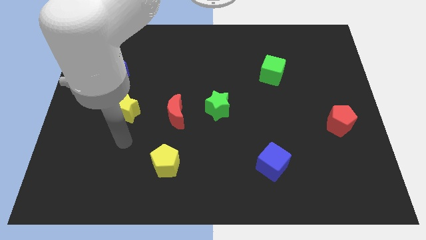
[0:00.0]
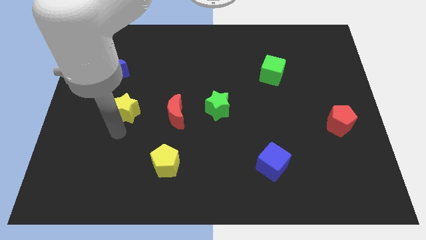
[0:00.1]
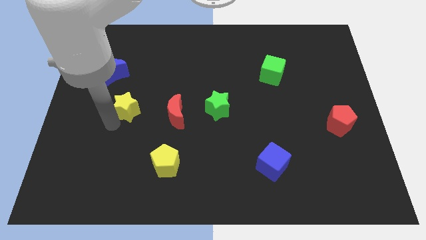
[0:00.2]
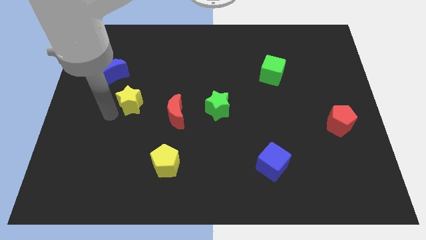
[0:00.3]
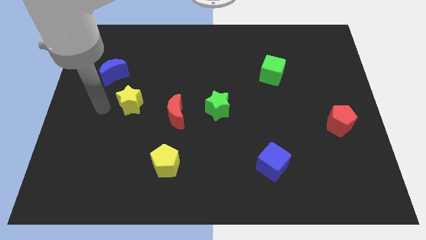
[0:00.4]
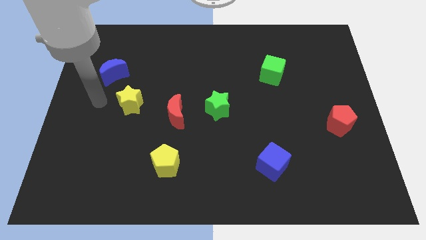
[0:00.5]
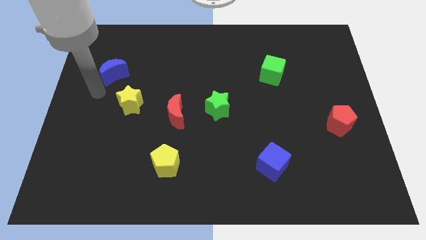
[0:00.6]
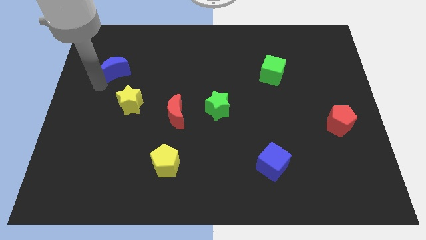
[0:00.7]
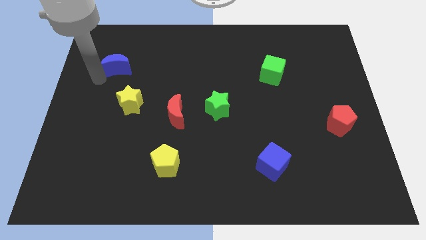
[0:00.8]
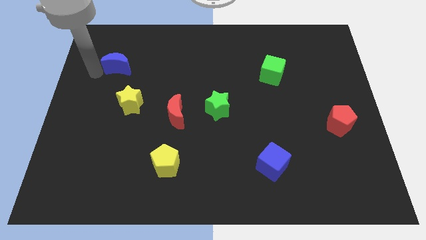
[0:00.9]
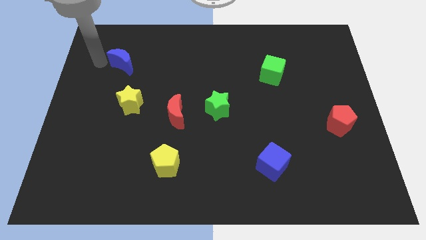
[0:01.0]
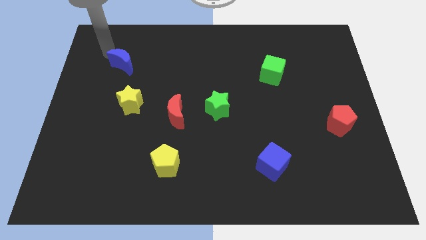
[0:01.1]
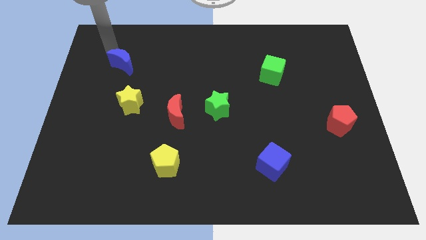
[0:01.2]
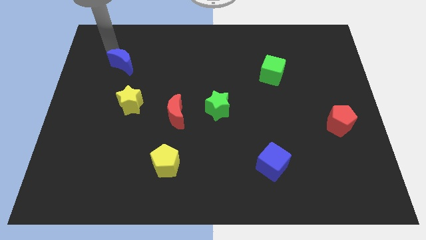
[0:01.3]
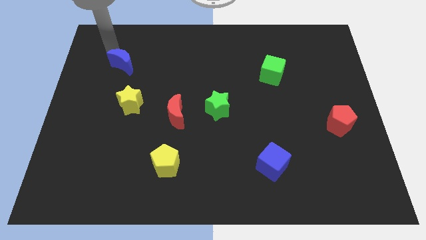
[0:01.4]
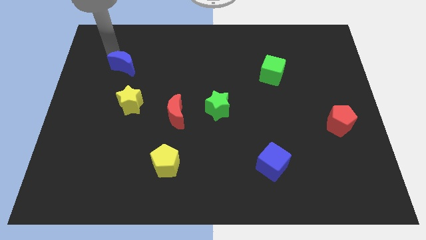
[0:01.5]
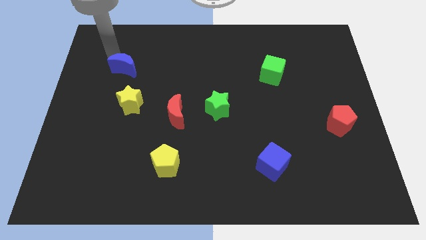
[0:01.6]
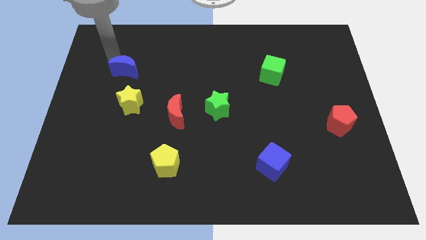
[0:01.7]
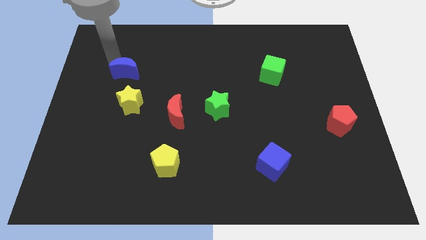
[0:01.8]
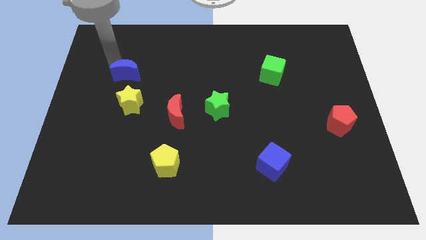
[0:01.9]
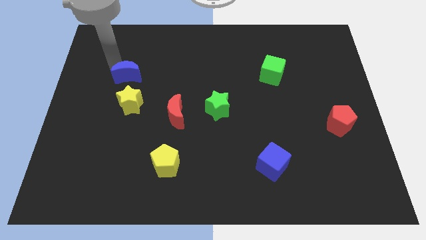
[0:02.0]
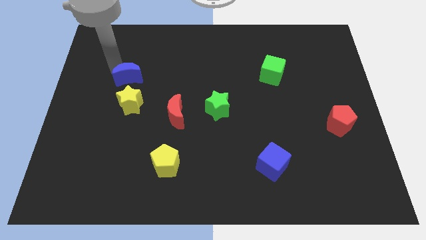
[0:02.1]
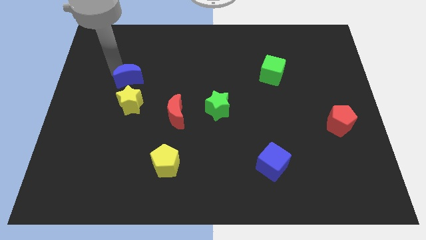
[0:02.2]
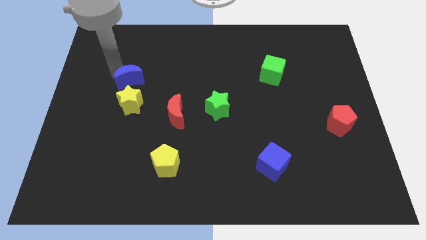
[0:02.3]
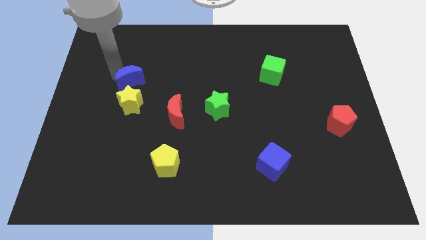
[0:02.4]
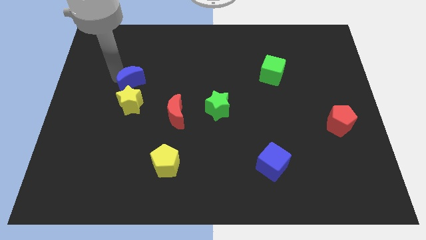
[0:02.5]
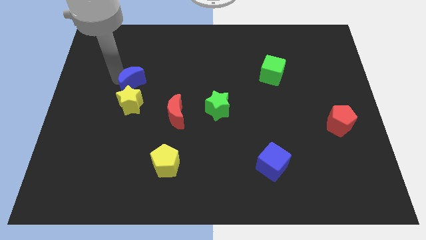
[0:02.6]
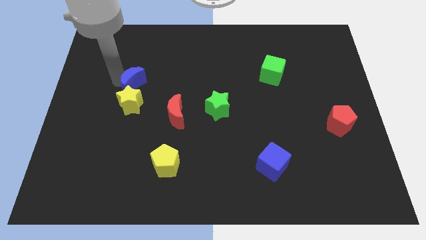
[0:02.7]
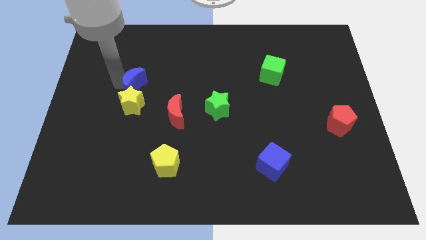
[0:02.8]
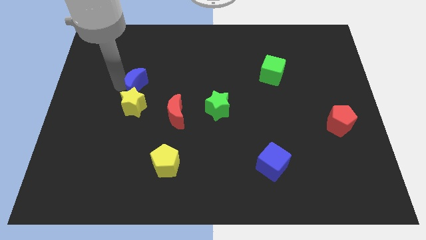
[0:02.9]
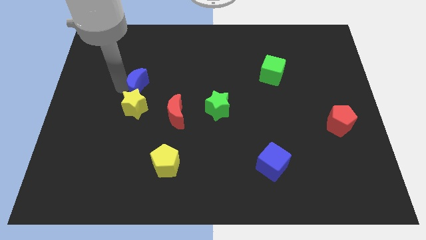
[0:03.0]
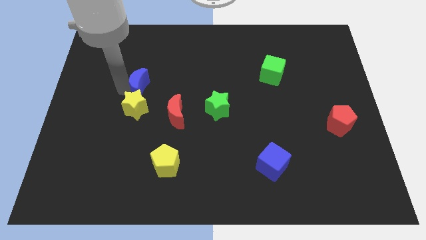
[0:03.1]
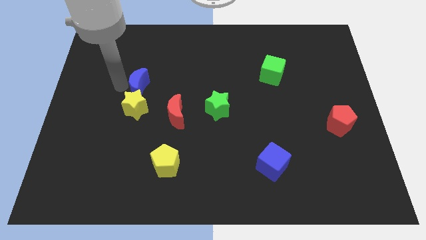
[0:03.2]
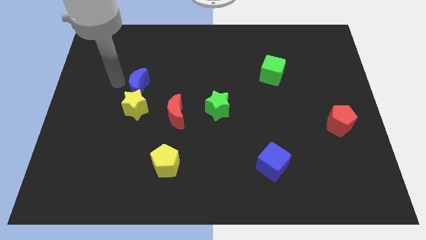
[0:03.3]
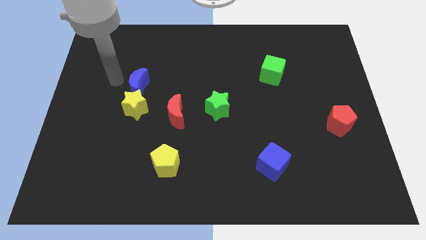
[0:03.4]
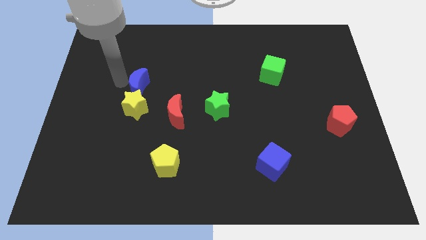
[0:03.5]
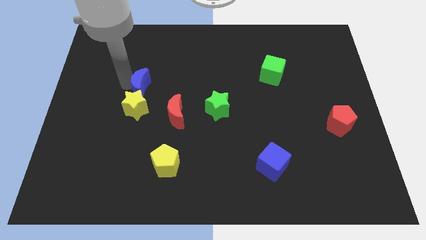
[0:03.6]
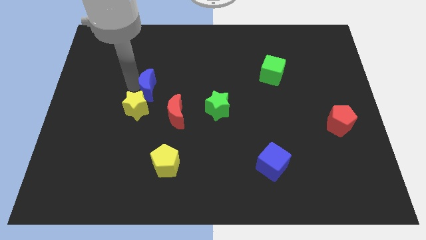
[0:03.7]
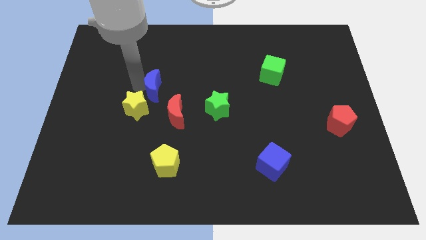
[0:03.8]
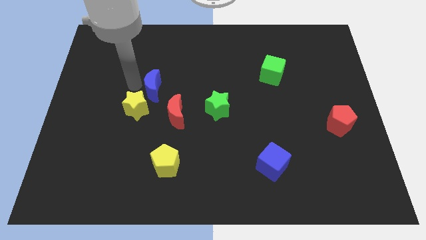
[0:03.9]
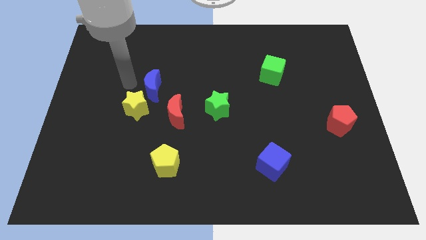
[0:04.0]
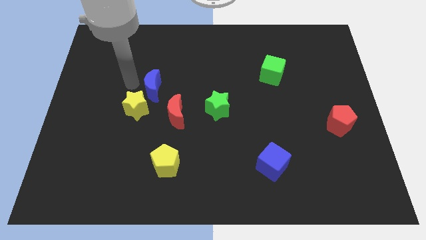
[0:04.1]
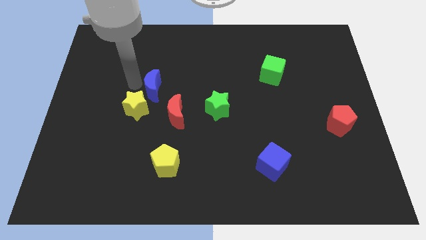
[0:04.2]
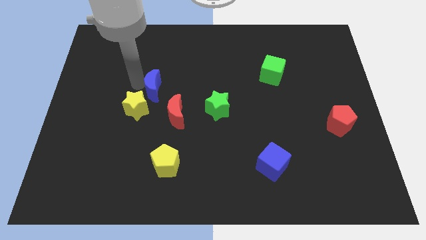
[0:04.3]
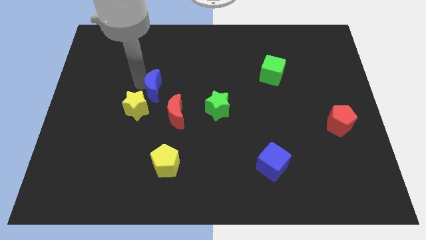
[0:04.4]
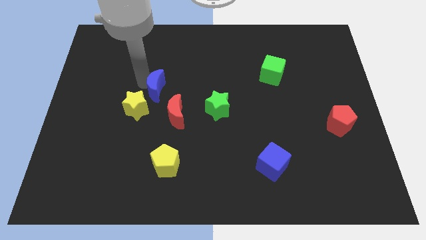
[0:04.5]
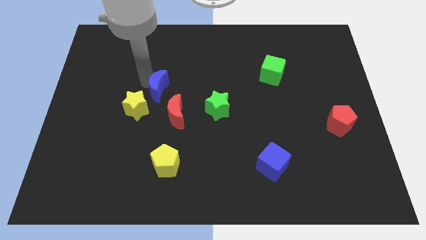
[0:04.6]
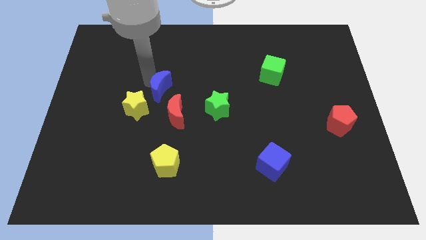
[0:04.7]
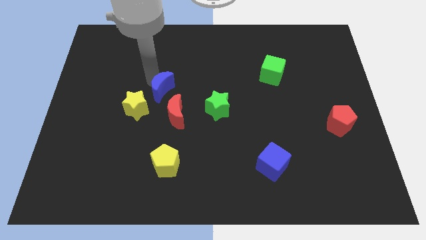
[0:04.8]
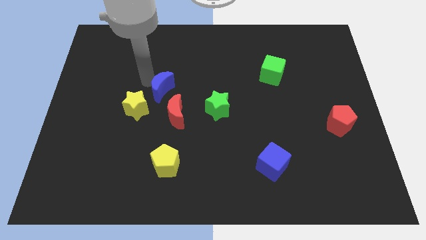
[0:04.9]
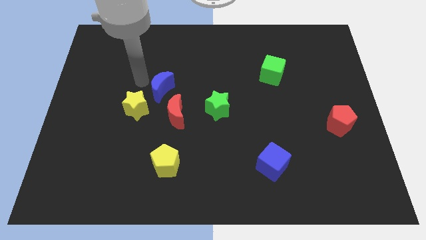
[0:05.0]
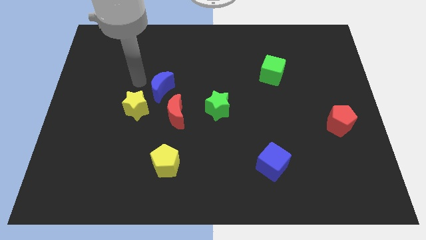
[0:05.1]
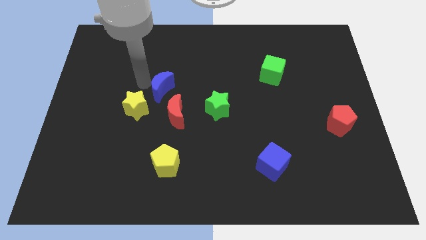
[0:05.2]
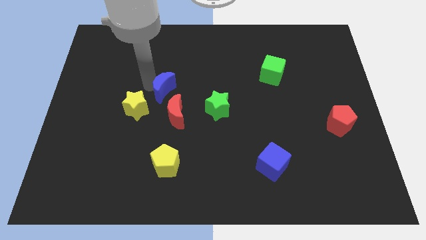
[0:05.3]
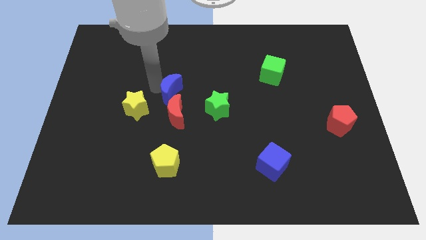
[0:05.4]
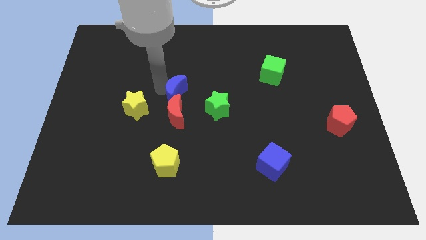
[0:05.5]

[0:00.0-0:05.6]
put the blue moon to the right side of the yellow star

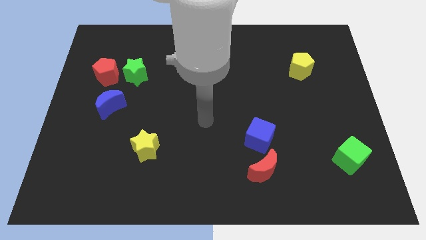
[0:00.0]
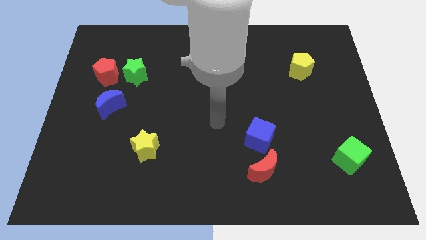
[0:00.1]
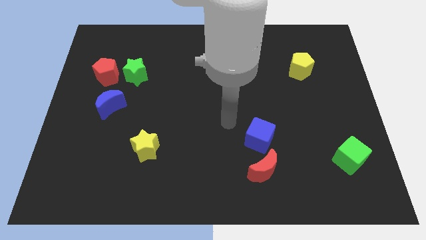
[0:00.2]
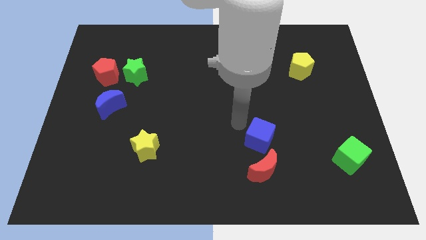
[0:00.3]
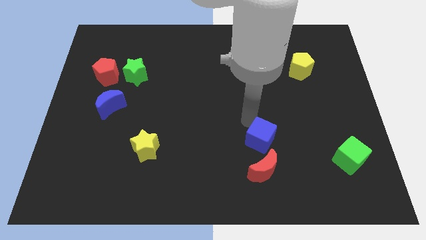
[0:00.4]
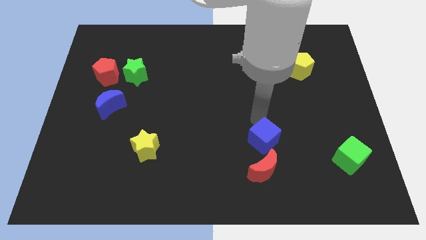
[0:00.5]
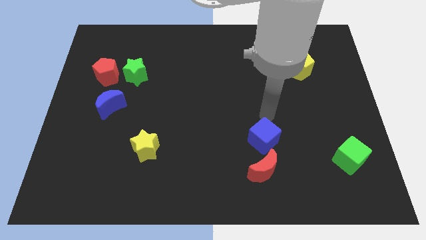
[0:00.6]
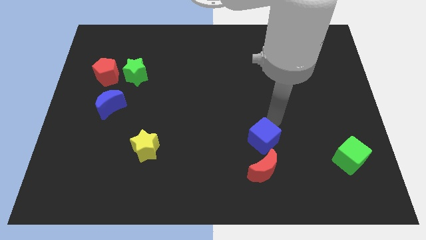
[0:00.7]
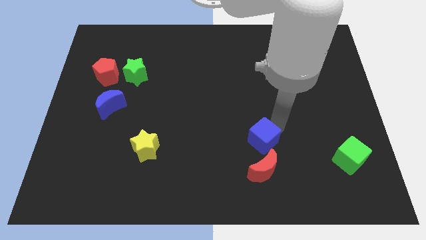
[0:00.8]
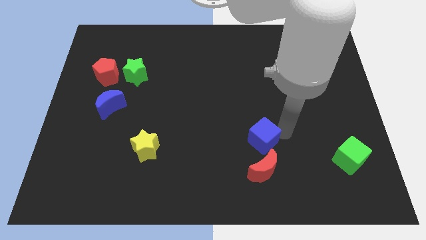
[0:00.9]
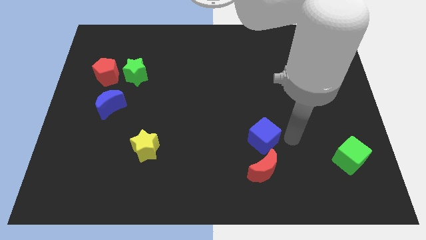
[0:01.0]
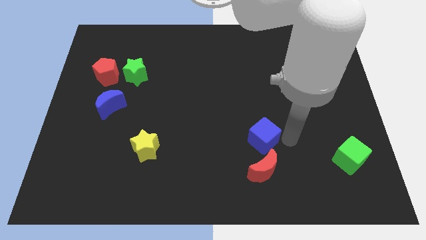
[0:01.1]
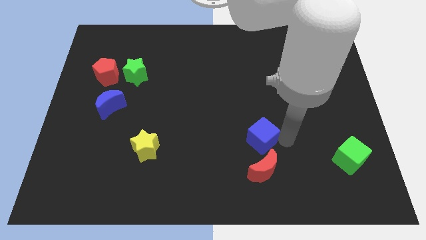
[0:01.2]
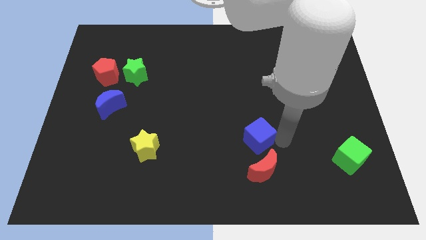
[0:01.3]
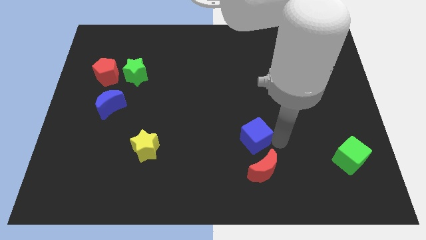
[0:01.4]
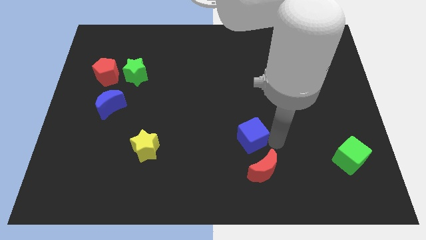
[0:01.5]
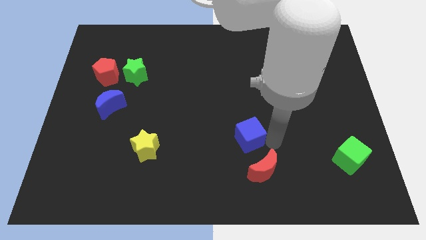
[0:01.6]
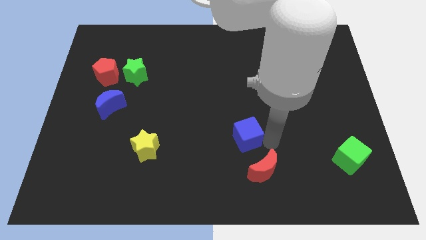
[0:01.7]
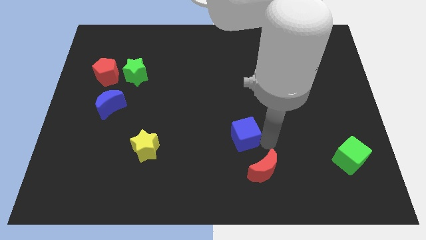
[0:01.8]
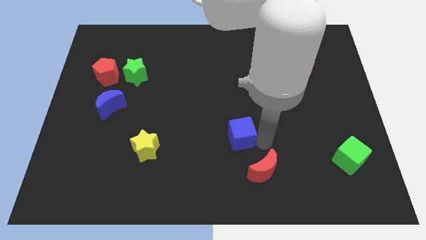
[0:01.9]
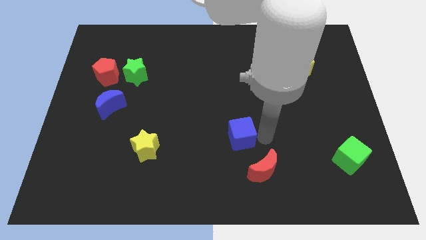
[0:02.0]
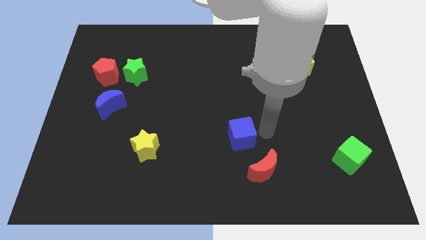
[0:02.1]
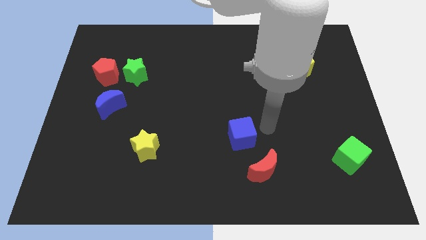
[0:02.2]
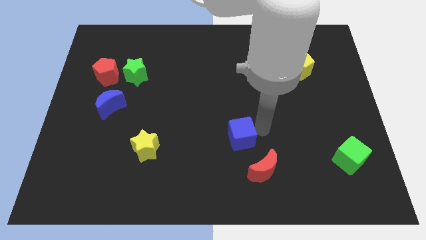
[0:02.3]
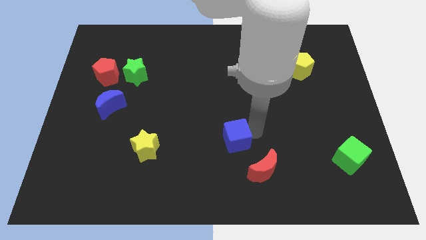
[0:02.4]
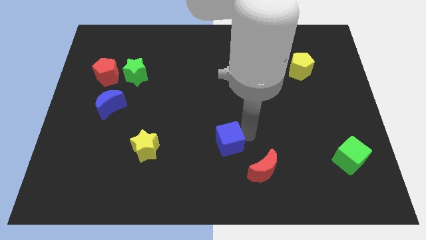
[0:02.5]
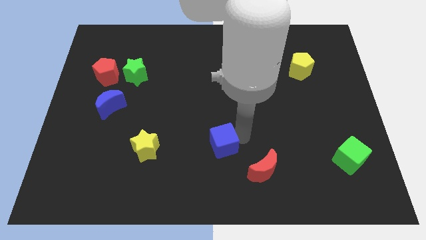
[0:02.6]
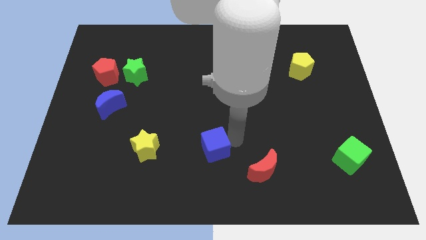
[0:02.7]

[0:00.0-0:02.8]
put the blue cube to the right side of the yellow star
